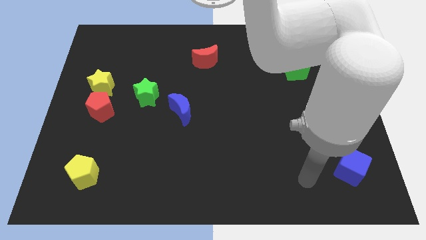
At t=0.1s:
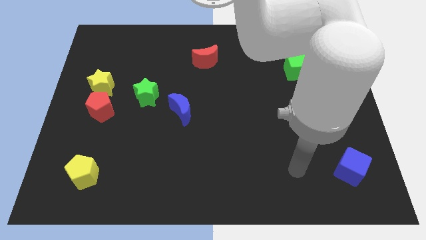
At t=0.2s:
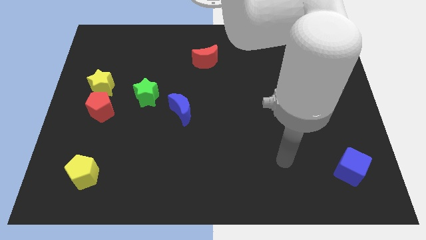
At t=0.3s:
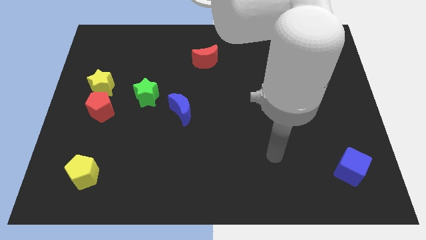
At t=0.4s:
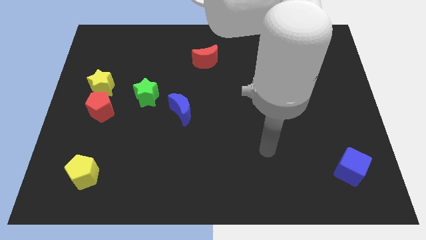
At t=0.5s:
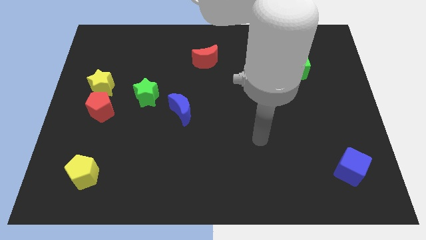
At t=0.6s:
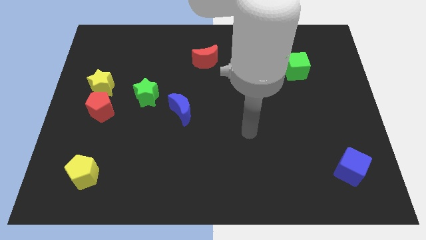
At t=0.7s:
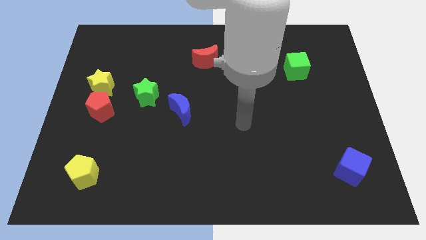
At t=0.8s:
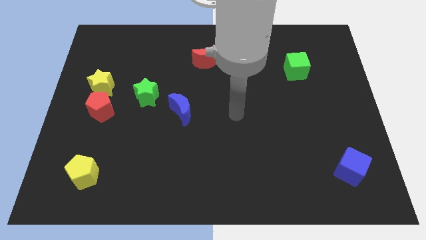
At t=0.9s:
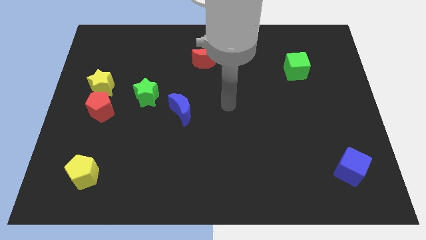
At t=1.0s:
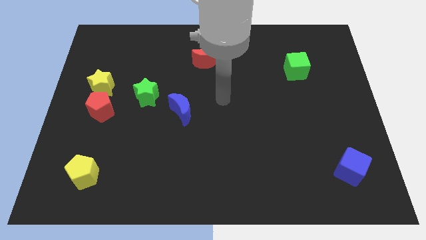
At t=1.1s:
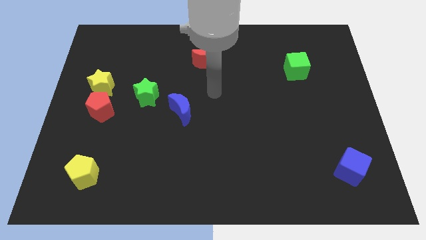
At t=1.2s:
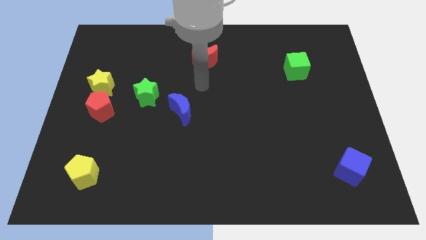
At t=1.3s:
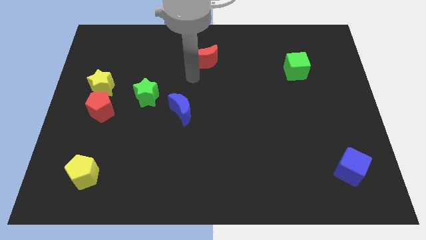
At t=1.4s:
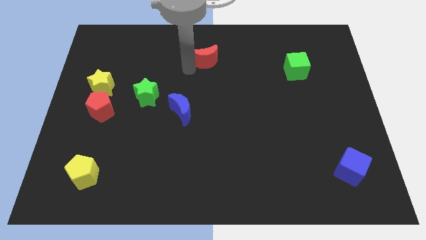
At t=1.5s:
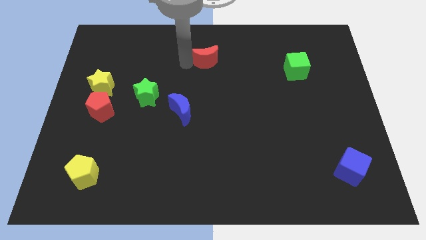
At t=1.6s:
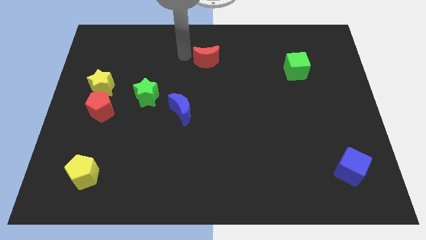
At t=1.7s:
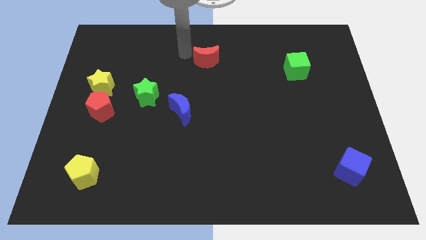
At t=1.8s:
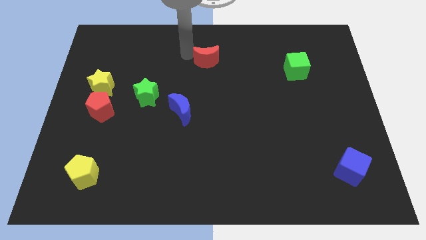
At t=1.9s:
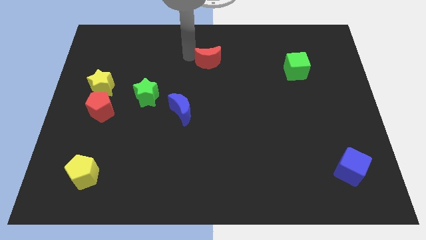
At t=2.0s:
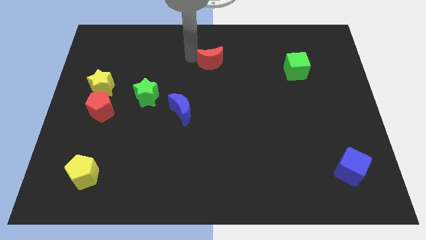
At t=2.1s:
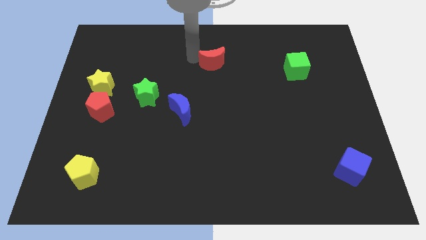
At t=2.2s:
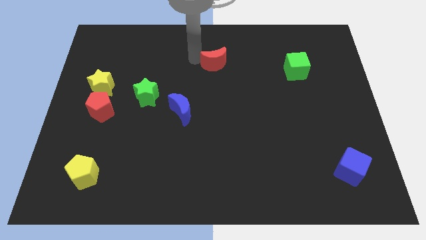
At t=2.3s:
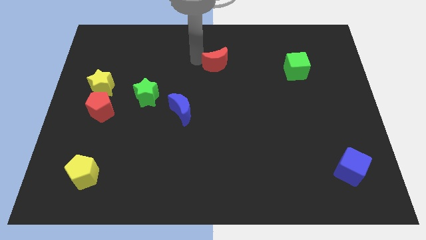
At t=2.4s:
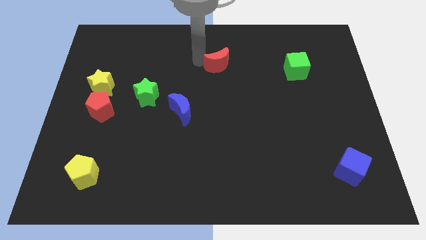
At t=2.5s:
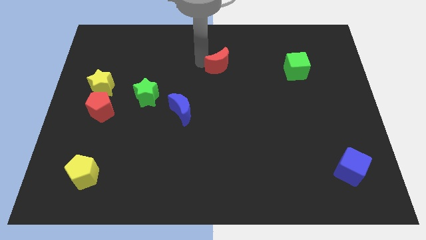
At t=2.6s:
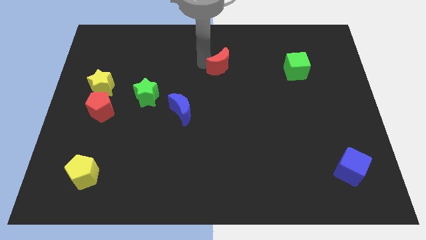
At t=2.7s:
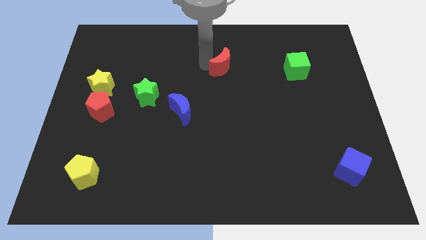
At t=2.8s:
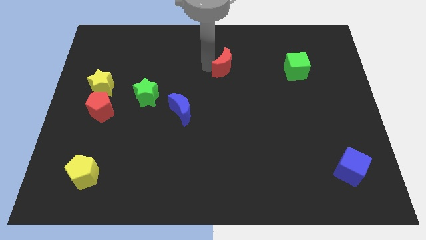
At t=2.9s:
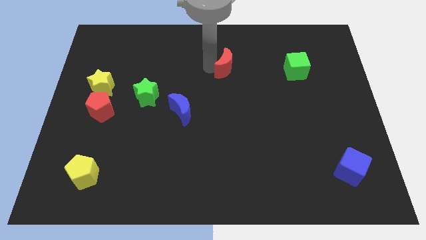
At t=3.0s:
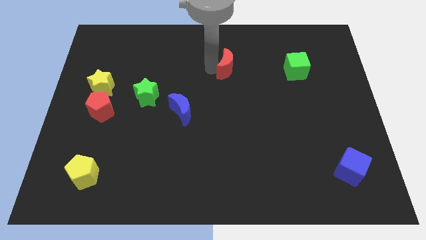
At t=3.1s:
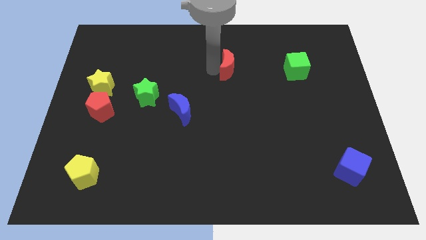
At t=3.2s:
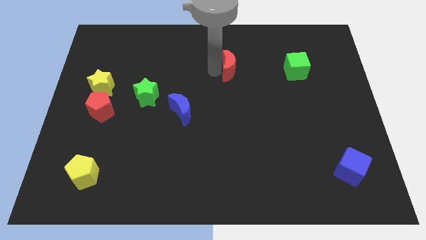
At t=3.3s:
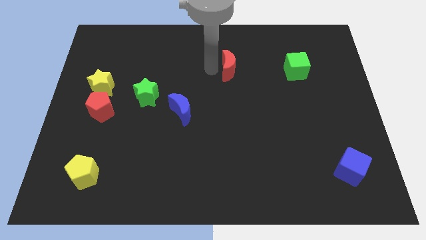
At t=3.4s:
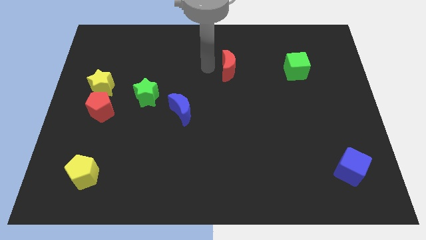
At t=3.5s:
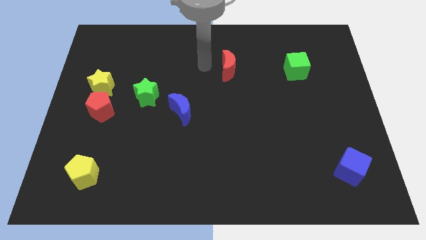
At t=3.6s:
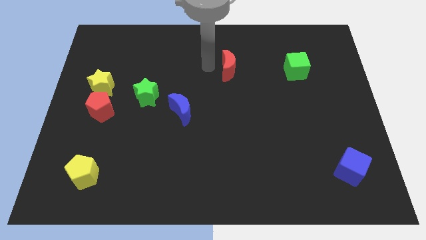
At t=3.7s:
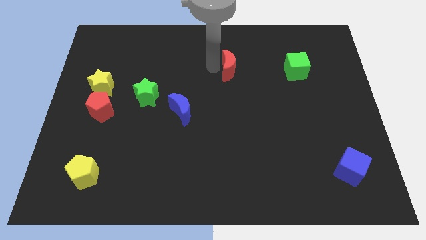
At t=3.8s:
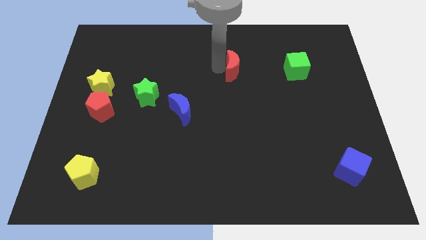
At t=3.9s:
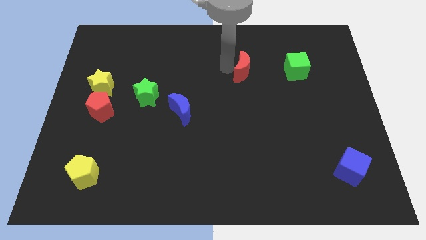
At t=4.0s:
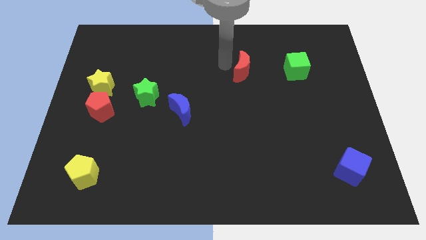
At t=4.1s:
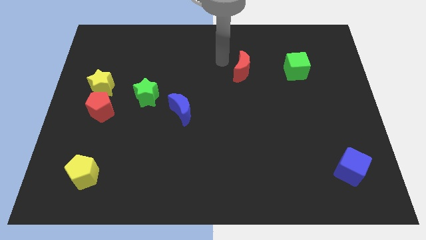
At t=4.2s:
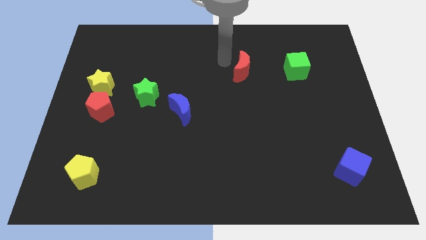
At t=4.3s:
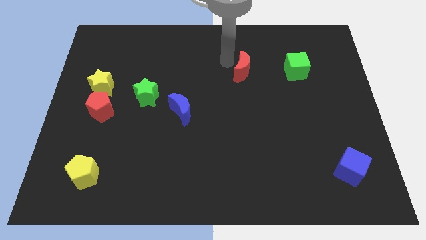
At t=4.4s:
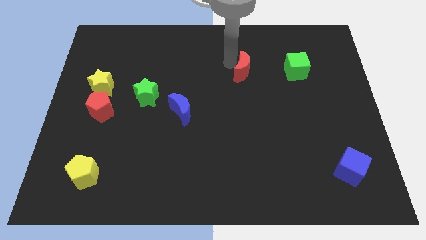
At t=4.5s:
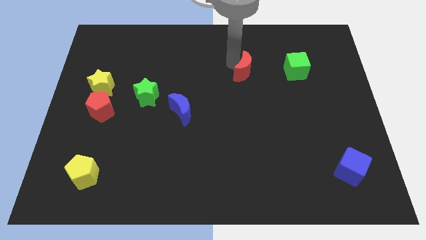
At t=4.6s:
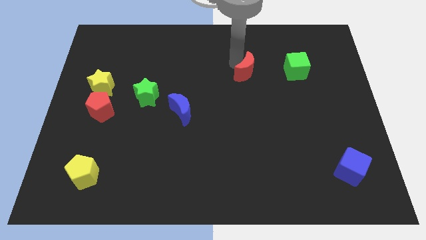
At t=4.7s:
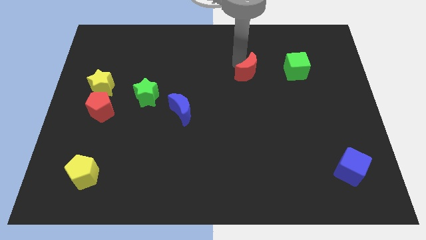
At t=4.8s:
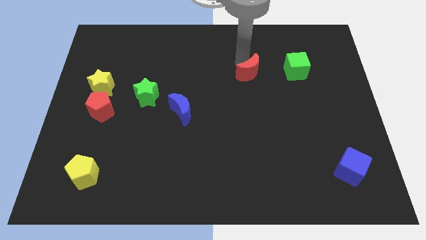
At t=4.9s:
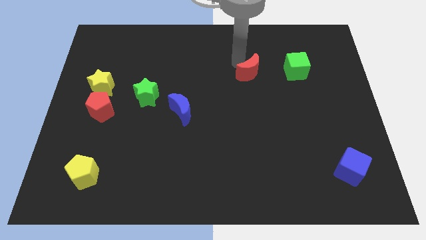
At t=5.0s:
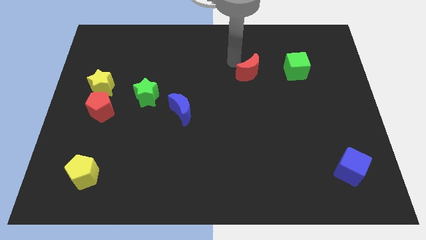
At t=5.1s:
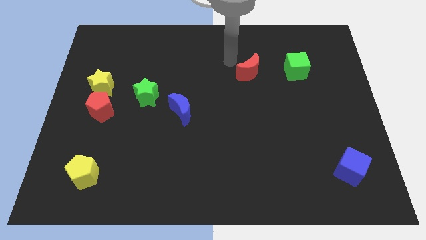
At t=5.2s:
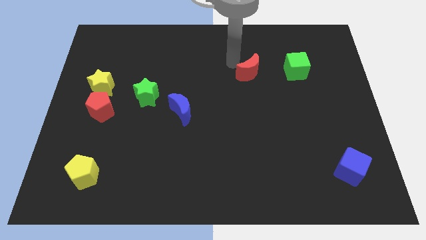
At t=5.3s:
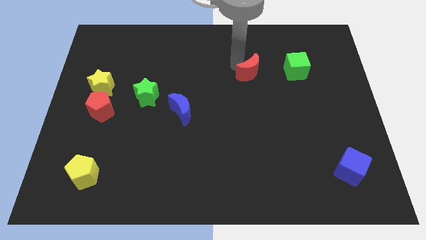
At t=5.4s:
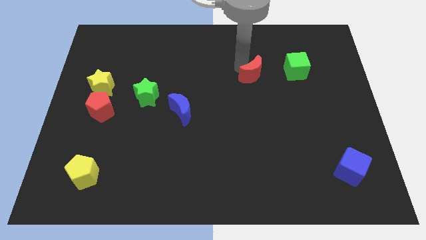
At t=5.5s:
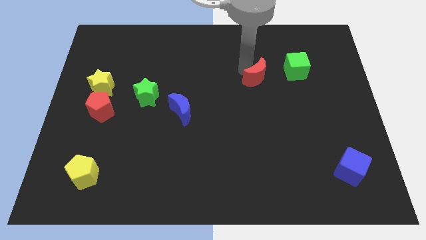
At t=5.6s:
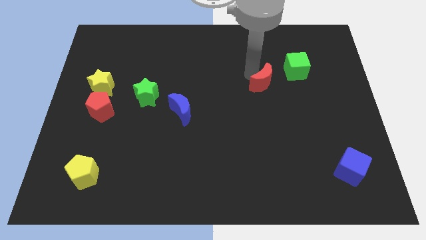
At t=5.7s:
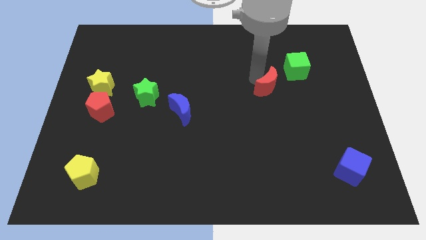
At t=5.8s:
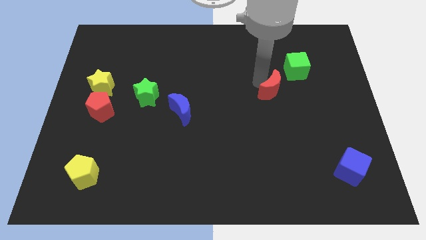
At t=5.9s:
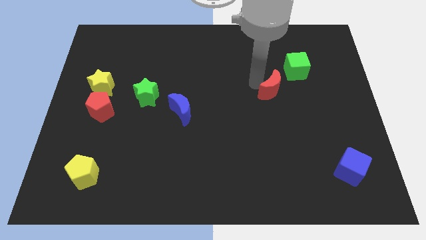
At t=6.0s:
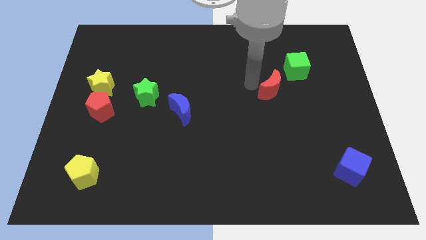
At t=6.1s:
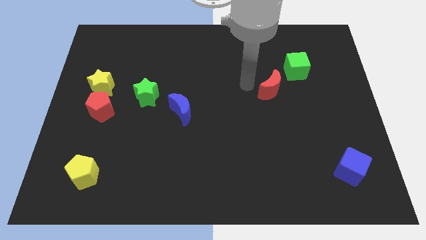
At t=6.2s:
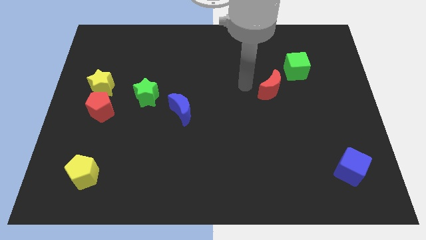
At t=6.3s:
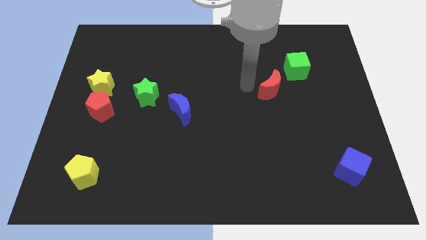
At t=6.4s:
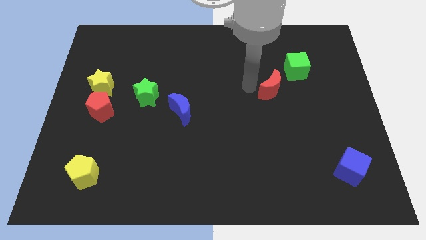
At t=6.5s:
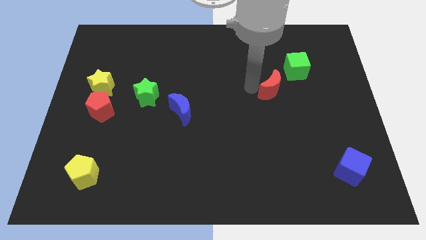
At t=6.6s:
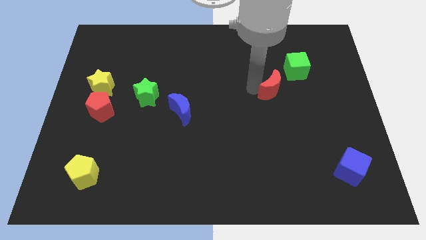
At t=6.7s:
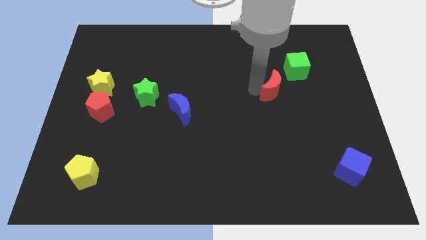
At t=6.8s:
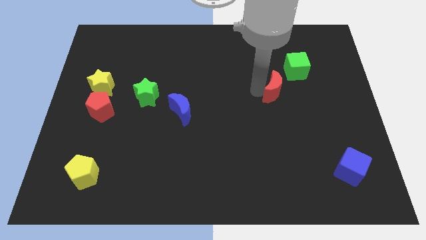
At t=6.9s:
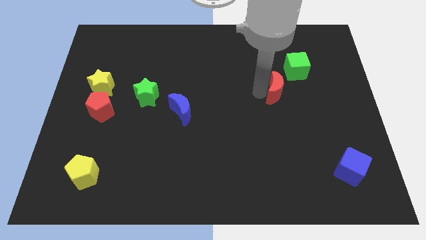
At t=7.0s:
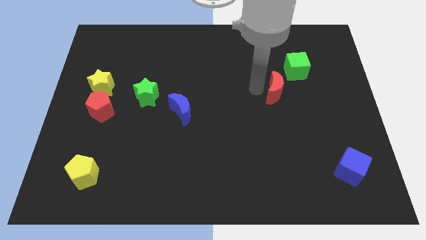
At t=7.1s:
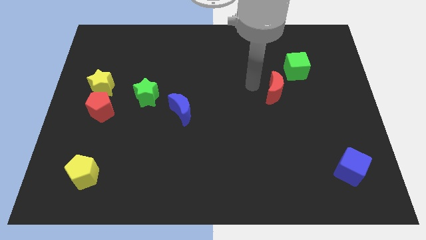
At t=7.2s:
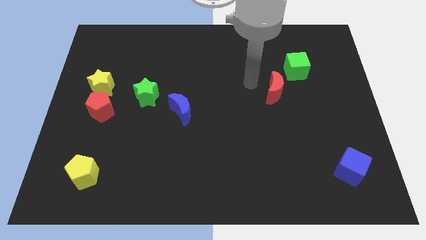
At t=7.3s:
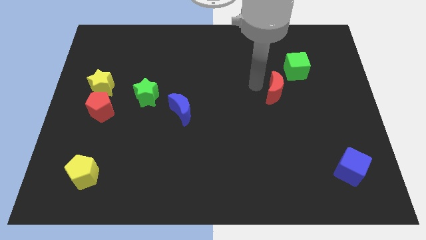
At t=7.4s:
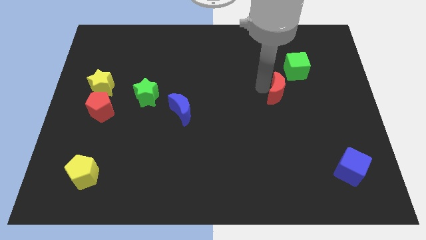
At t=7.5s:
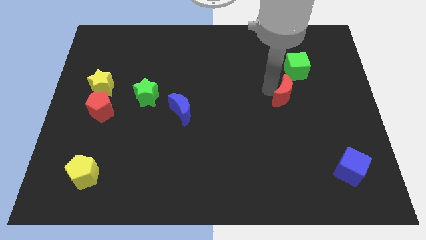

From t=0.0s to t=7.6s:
slide the red moon to the bottom side of the green cube

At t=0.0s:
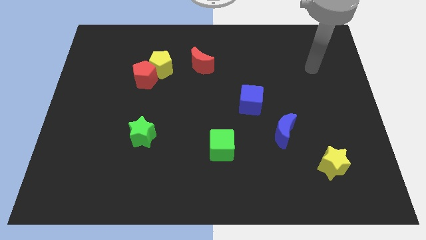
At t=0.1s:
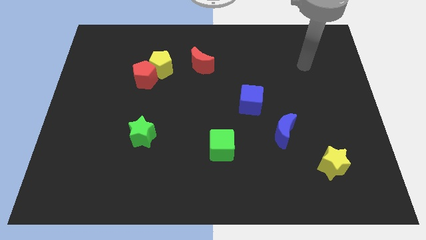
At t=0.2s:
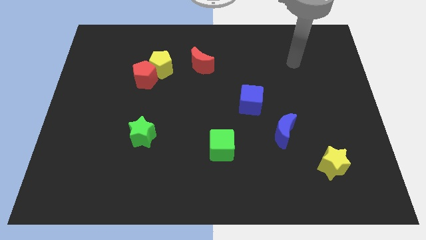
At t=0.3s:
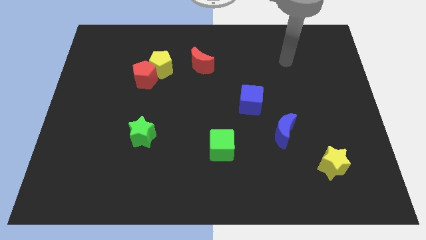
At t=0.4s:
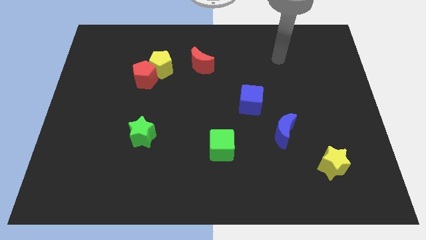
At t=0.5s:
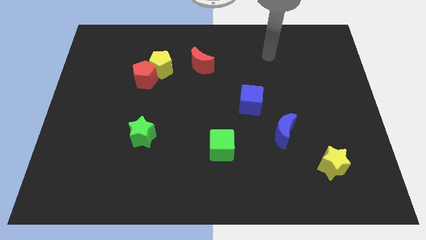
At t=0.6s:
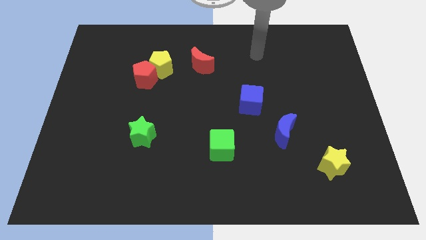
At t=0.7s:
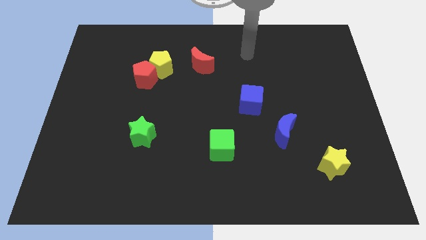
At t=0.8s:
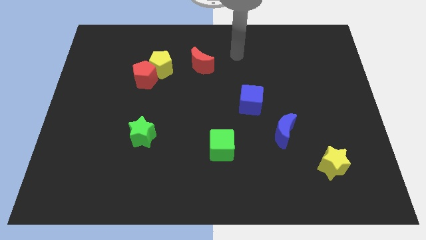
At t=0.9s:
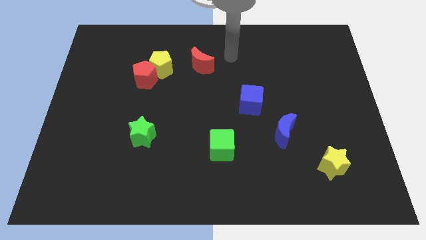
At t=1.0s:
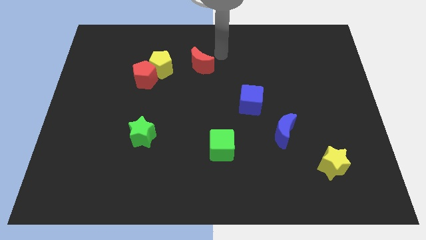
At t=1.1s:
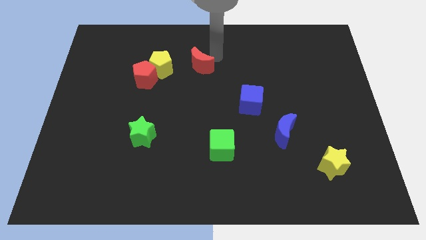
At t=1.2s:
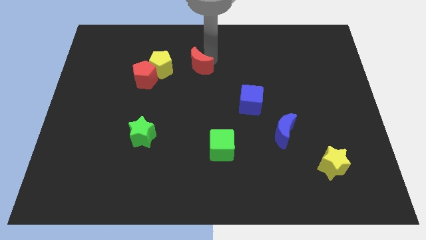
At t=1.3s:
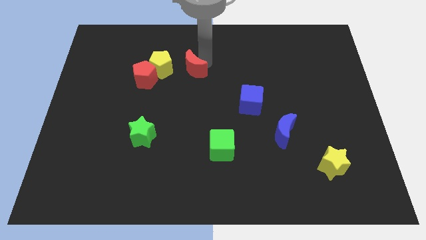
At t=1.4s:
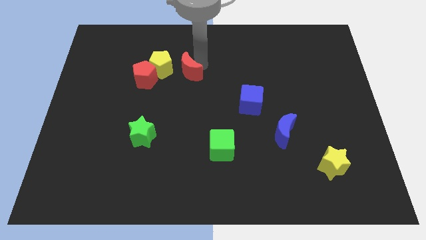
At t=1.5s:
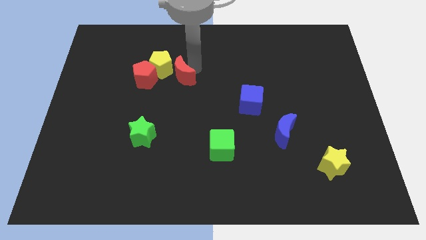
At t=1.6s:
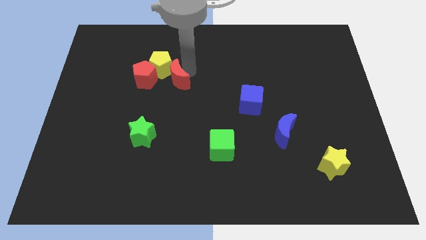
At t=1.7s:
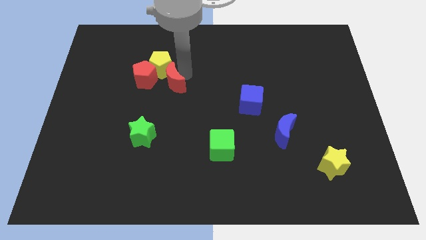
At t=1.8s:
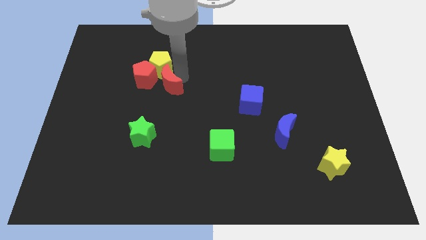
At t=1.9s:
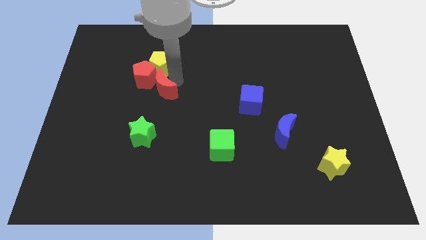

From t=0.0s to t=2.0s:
put the red moon to the top of the green star
